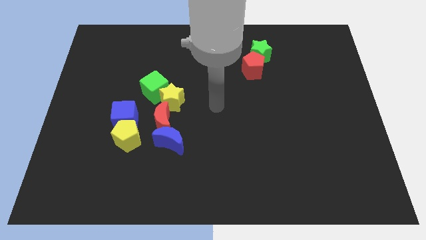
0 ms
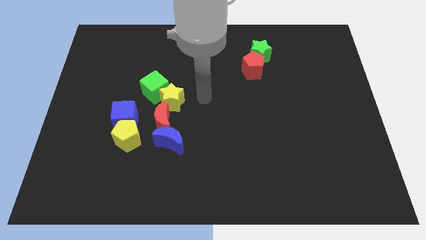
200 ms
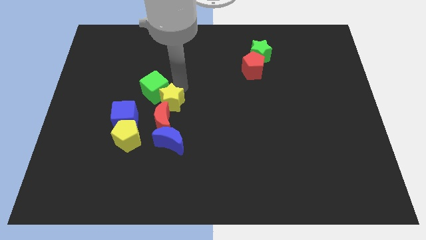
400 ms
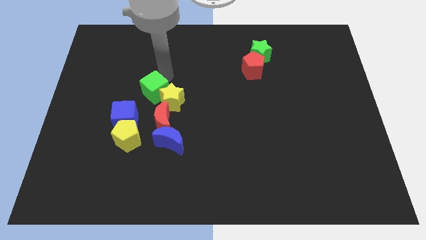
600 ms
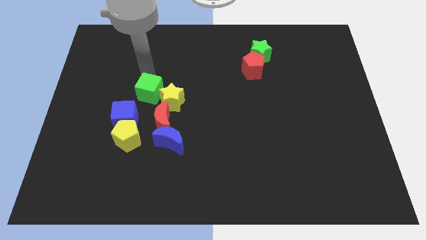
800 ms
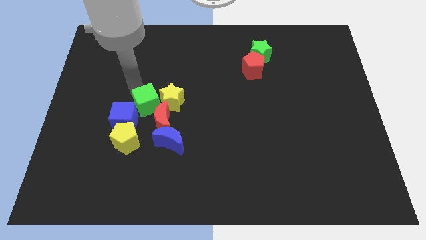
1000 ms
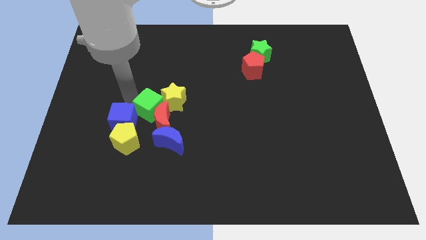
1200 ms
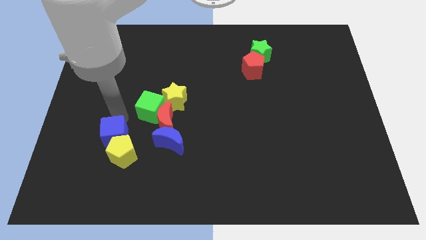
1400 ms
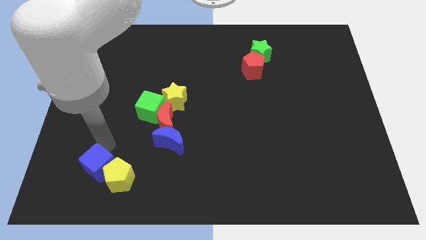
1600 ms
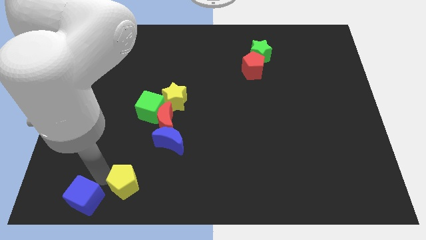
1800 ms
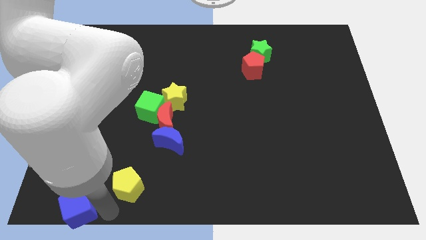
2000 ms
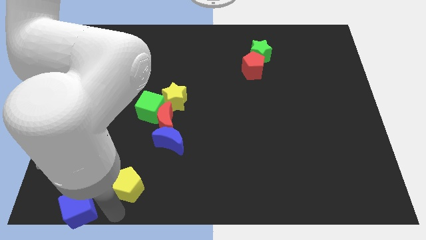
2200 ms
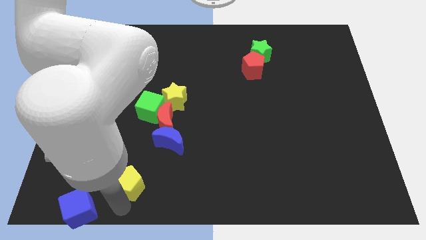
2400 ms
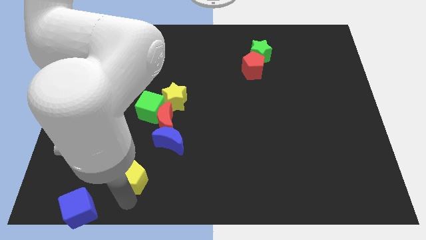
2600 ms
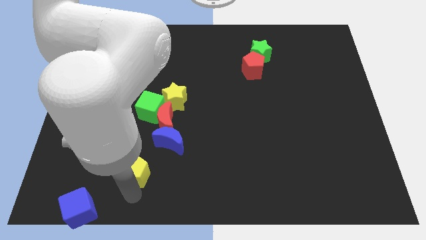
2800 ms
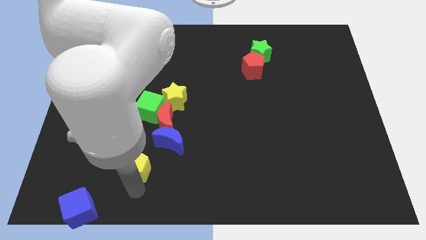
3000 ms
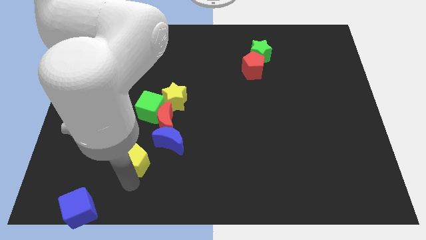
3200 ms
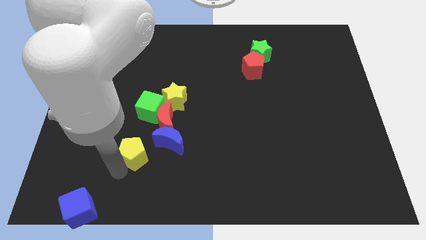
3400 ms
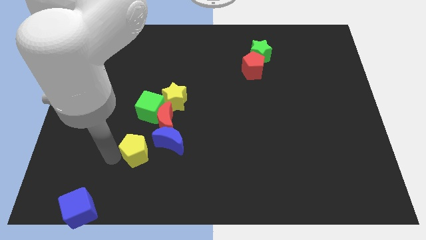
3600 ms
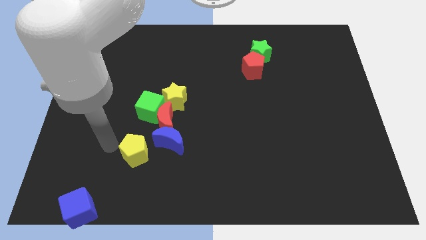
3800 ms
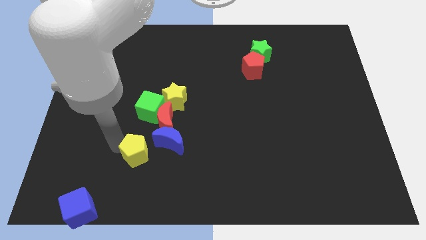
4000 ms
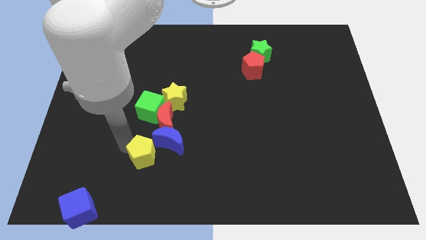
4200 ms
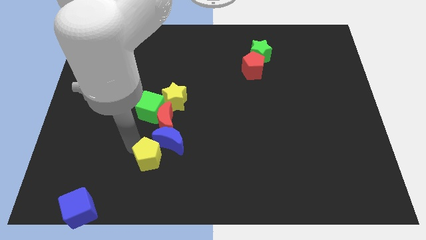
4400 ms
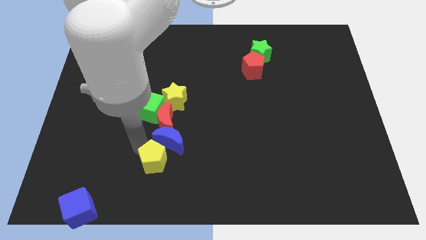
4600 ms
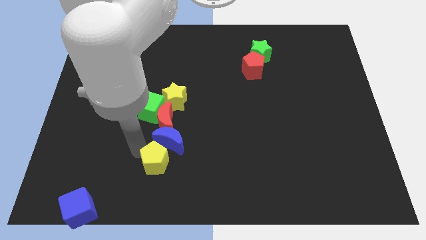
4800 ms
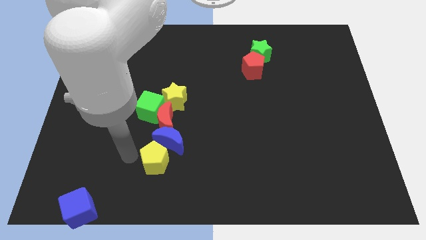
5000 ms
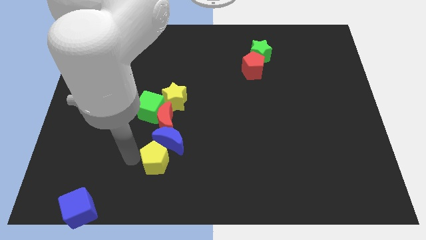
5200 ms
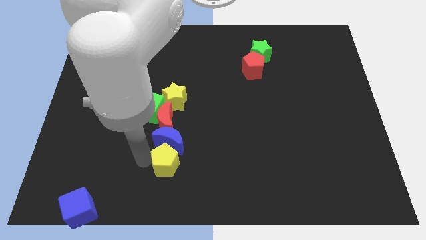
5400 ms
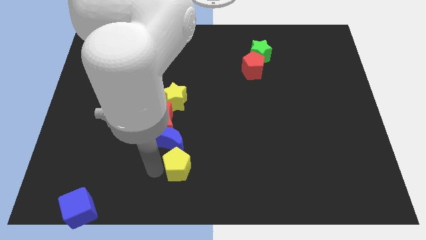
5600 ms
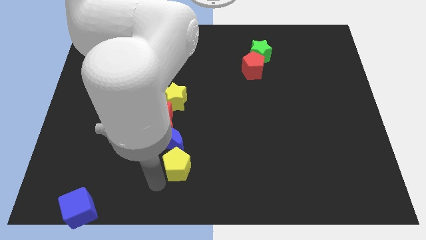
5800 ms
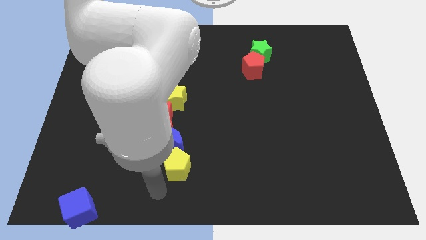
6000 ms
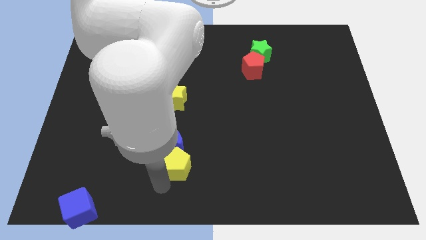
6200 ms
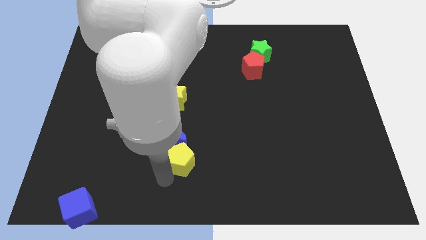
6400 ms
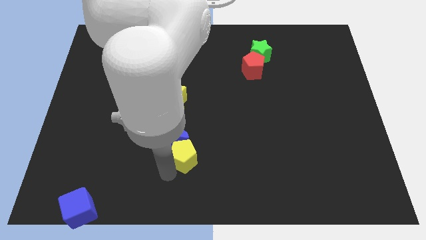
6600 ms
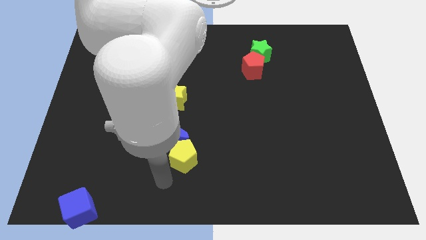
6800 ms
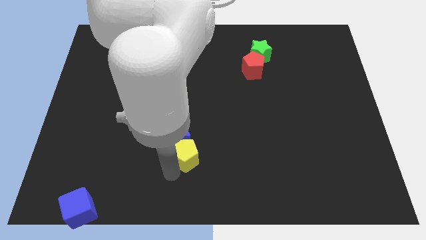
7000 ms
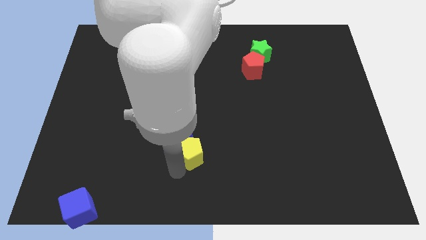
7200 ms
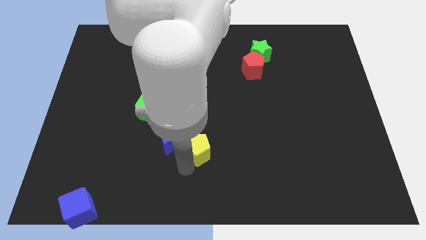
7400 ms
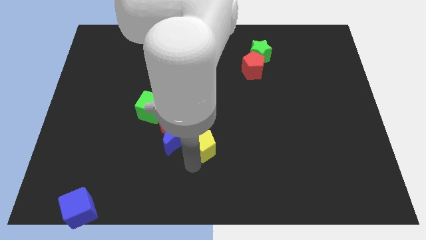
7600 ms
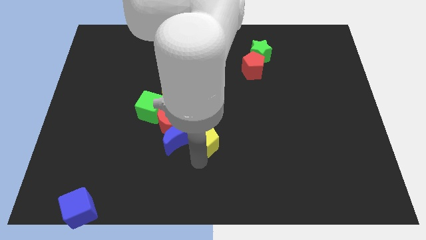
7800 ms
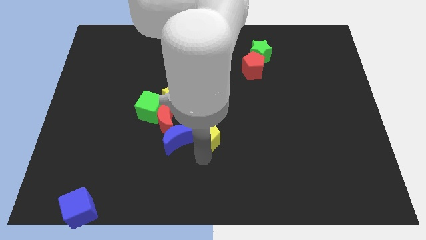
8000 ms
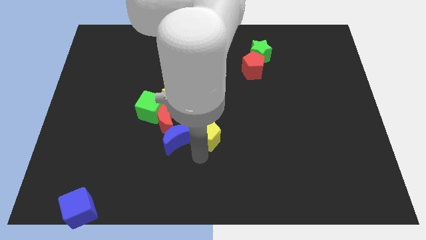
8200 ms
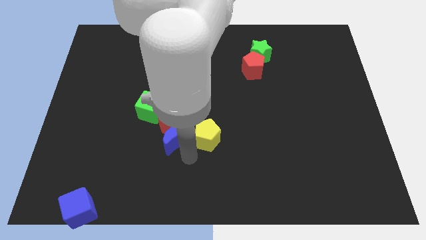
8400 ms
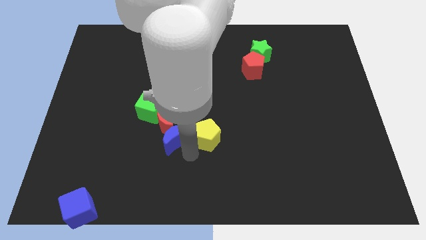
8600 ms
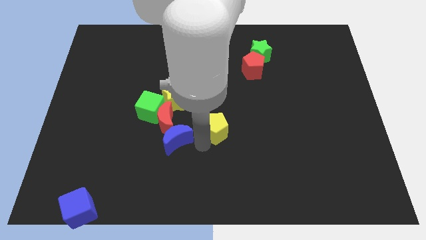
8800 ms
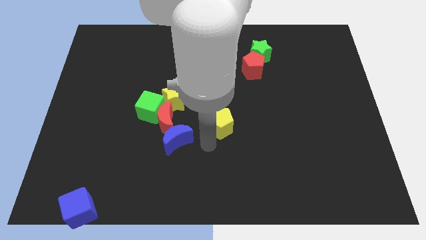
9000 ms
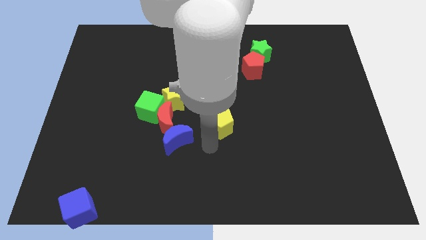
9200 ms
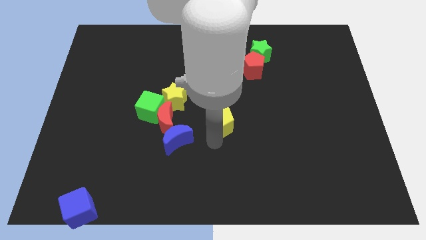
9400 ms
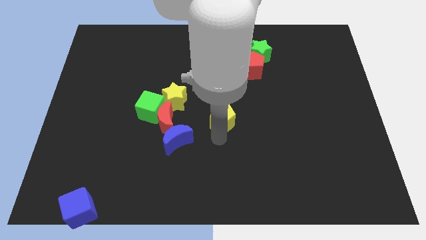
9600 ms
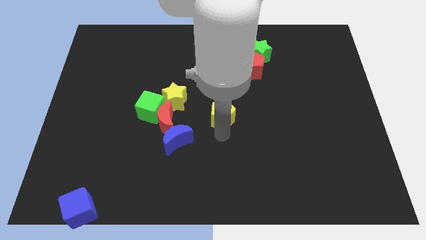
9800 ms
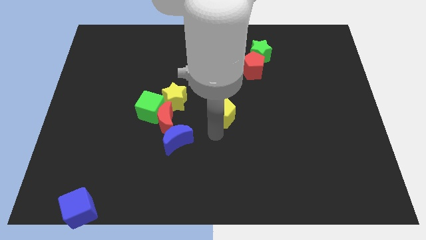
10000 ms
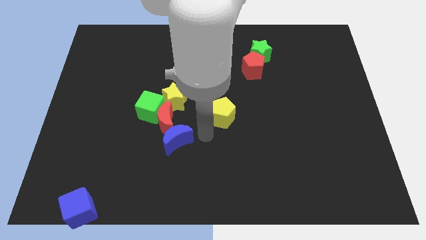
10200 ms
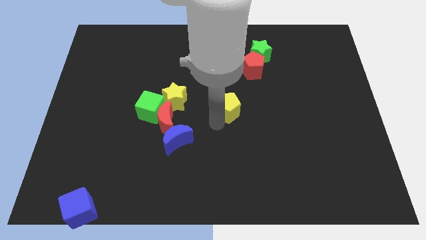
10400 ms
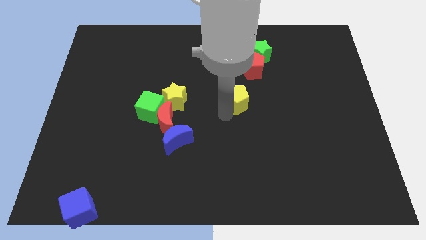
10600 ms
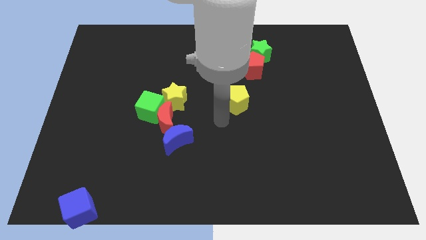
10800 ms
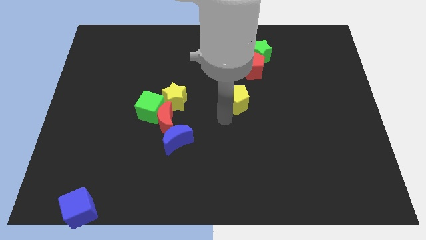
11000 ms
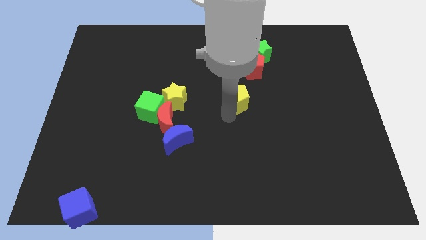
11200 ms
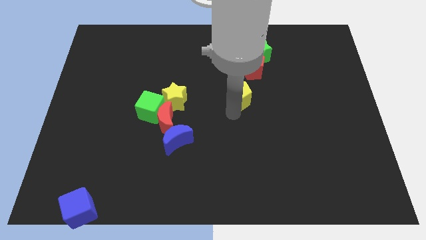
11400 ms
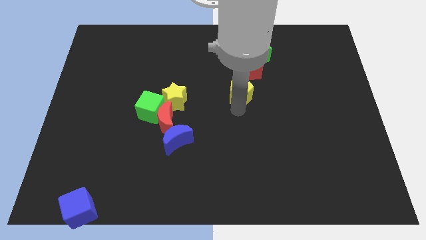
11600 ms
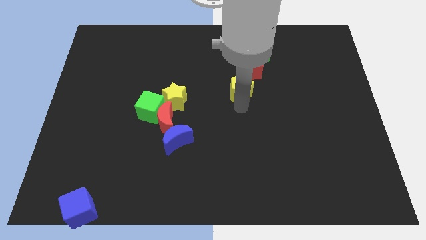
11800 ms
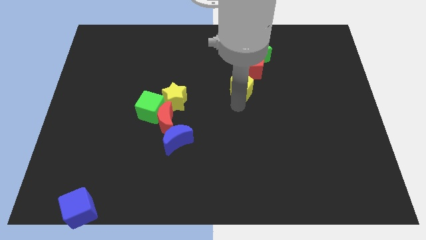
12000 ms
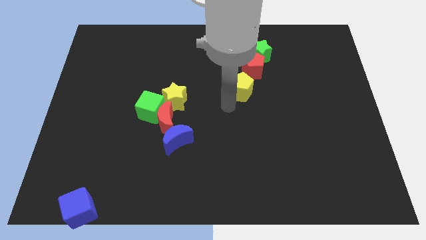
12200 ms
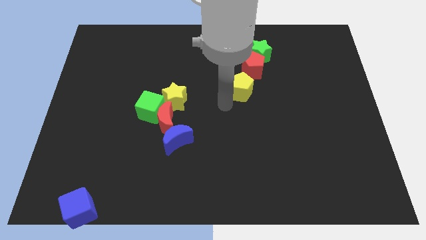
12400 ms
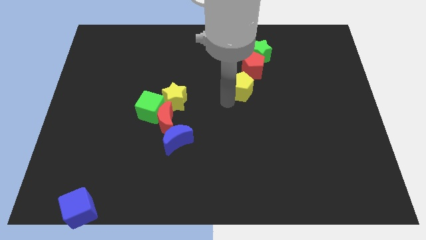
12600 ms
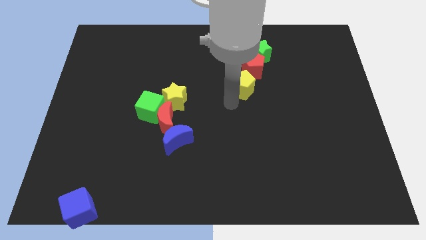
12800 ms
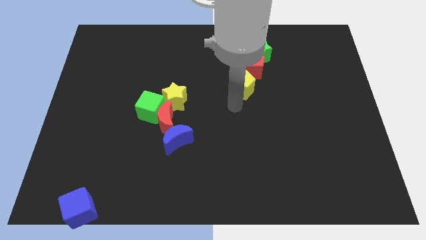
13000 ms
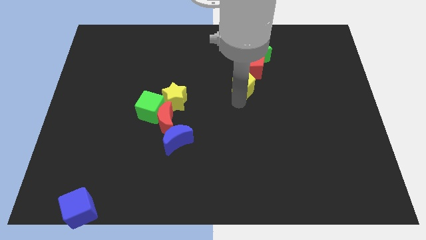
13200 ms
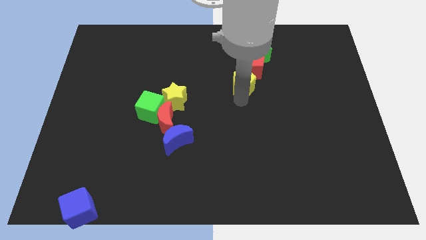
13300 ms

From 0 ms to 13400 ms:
push the yellow pentagon close to the red pentagon
